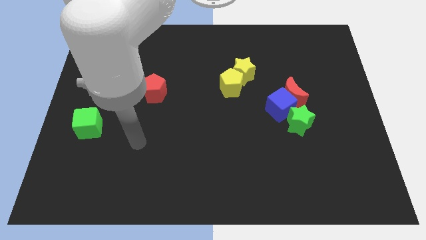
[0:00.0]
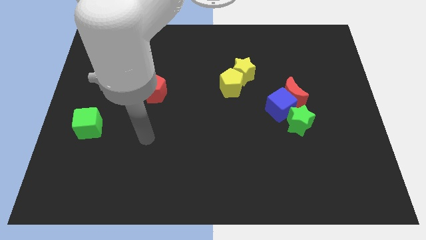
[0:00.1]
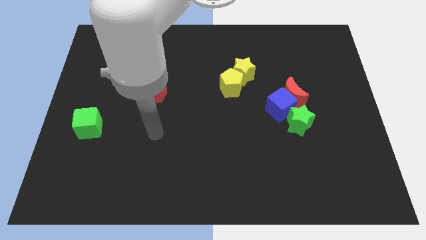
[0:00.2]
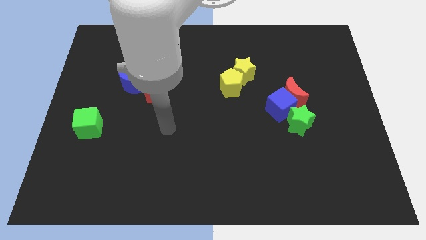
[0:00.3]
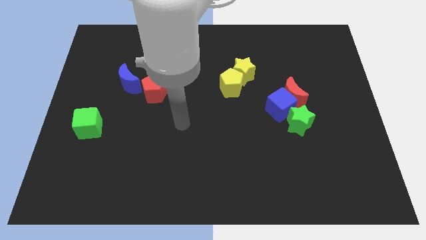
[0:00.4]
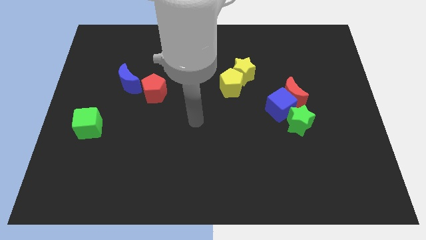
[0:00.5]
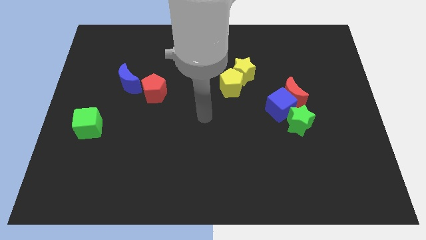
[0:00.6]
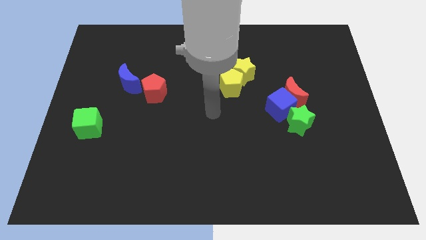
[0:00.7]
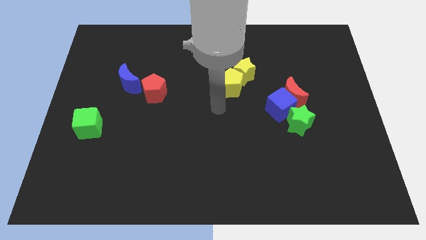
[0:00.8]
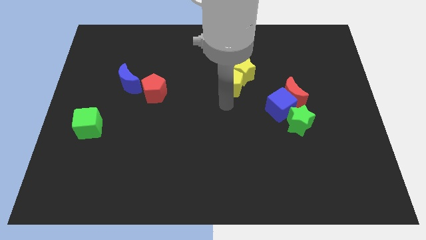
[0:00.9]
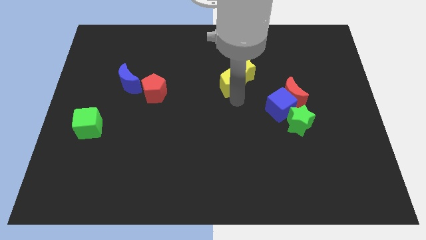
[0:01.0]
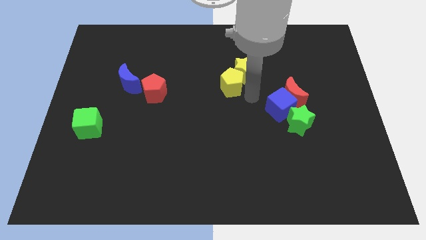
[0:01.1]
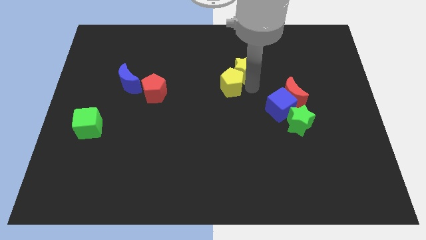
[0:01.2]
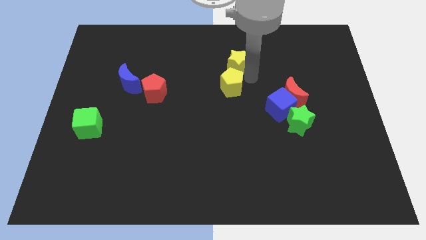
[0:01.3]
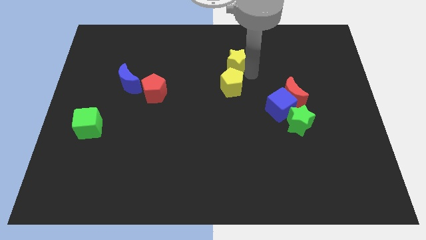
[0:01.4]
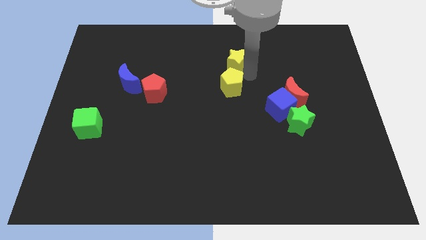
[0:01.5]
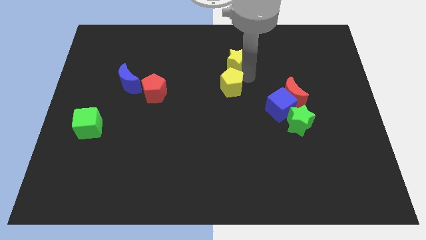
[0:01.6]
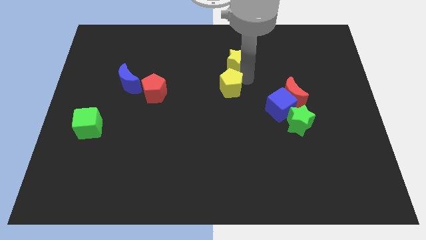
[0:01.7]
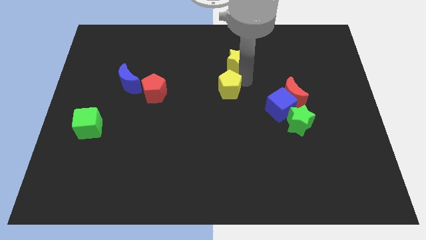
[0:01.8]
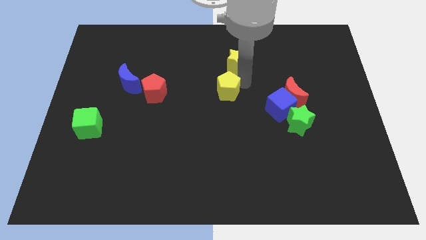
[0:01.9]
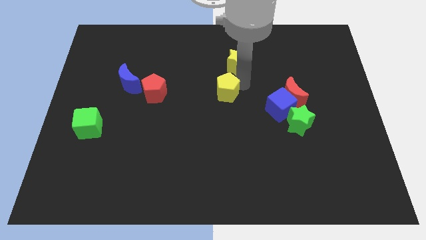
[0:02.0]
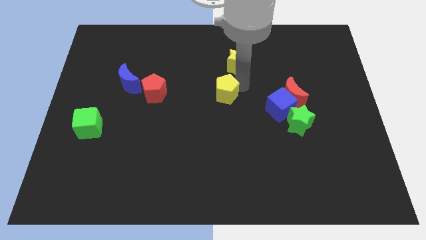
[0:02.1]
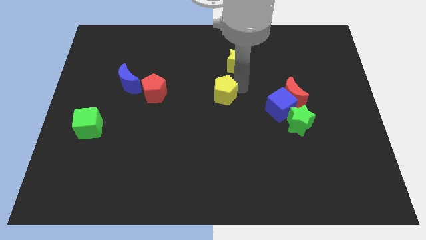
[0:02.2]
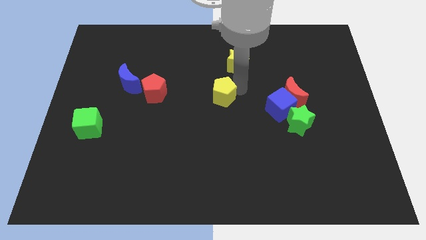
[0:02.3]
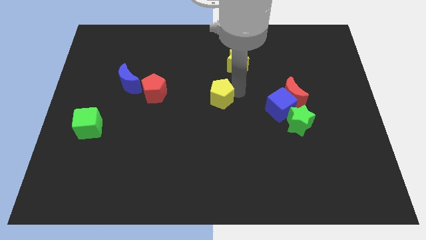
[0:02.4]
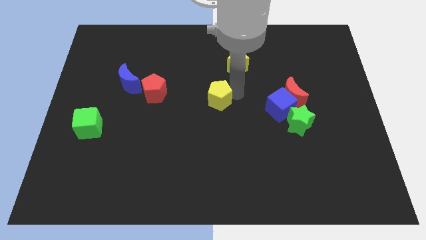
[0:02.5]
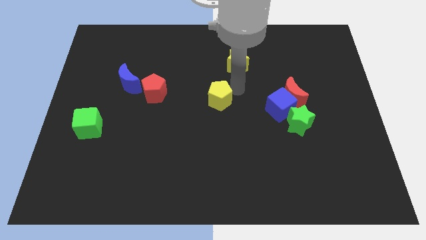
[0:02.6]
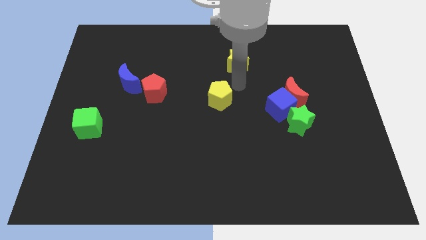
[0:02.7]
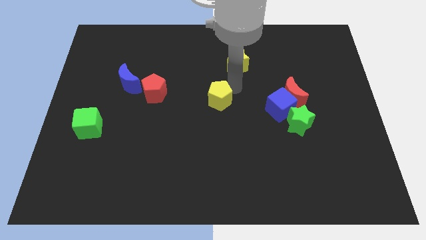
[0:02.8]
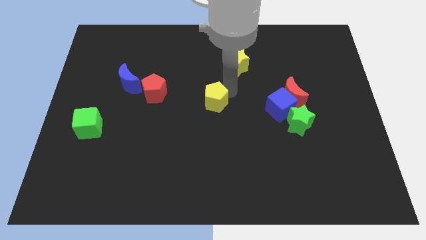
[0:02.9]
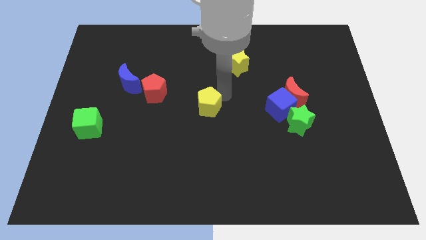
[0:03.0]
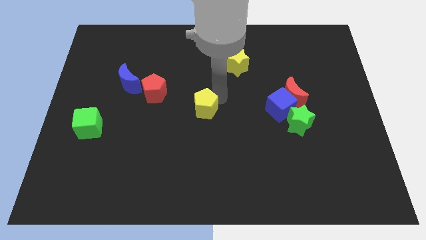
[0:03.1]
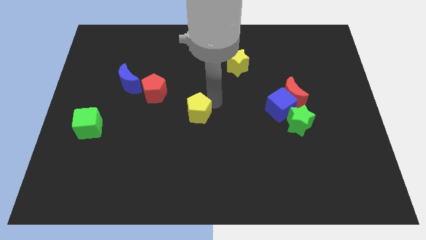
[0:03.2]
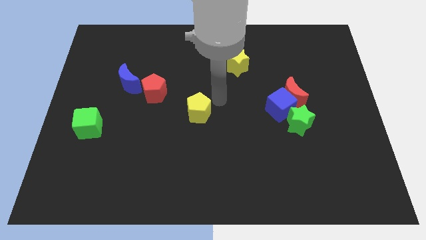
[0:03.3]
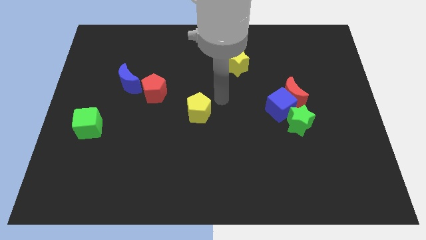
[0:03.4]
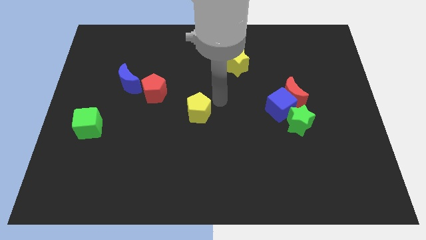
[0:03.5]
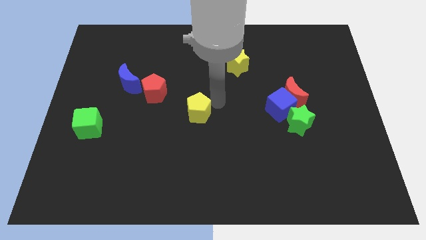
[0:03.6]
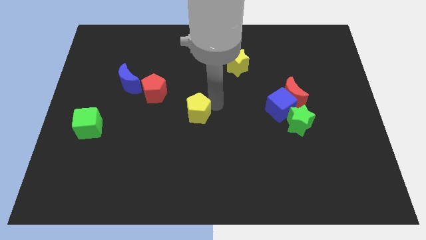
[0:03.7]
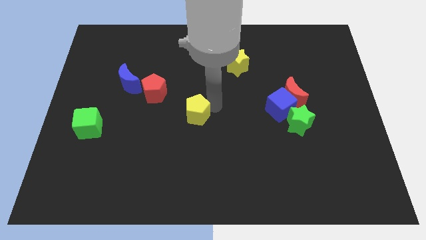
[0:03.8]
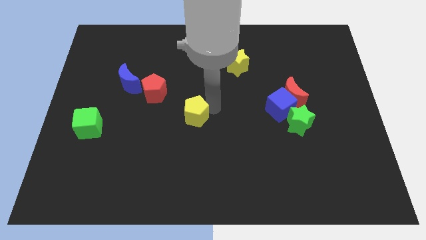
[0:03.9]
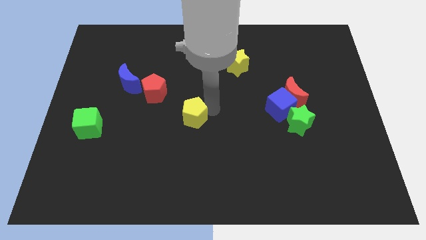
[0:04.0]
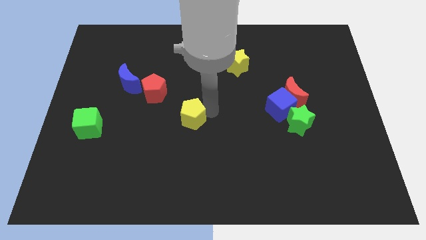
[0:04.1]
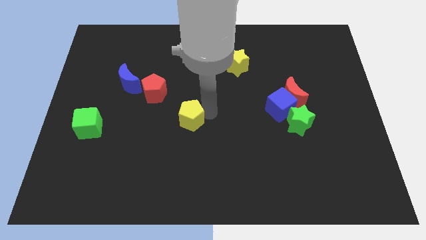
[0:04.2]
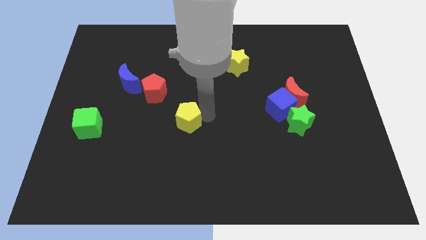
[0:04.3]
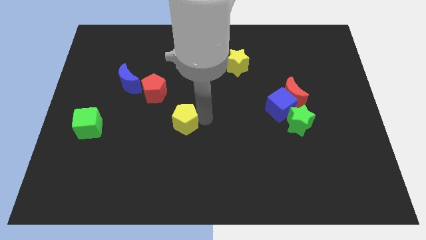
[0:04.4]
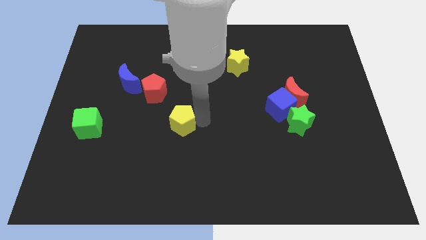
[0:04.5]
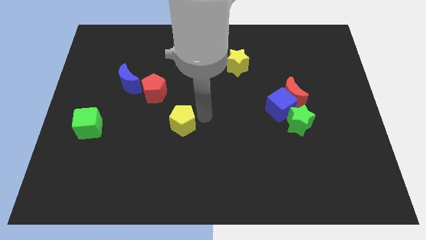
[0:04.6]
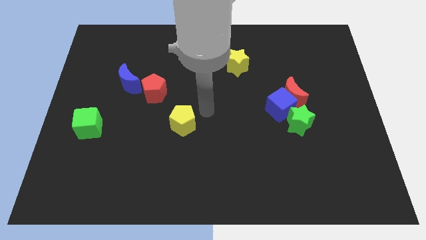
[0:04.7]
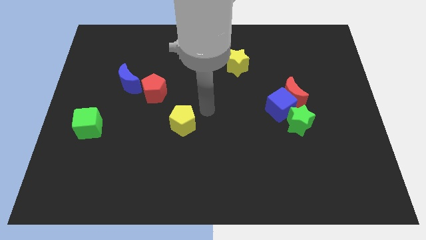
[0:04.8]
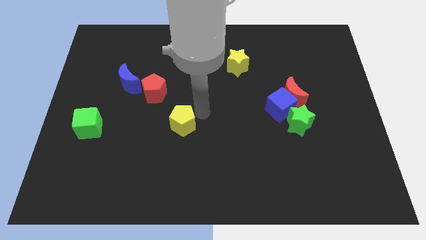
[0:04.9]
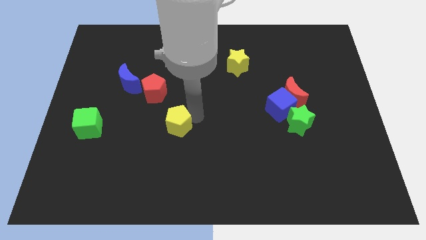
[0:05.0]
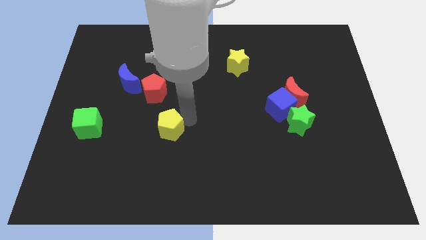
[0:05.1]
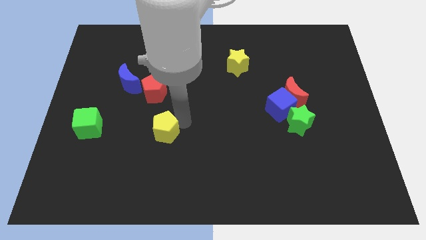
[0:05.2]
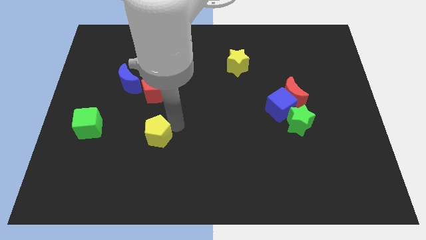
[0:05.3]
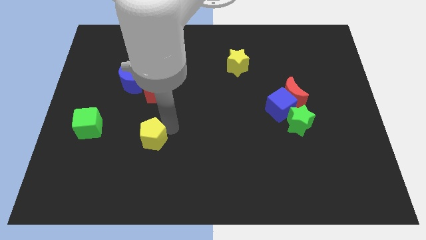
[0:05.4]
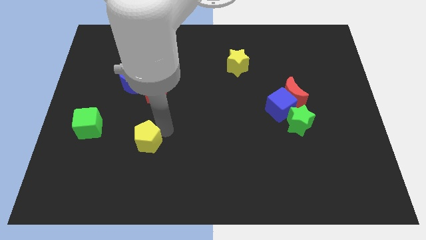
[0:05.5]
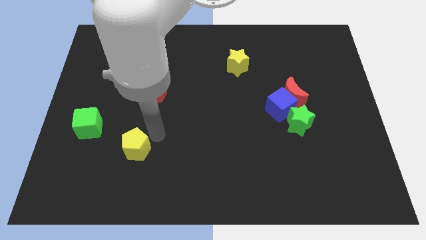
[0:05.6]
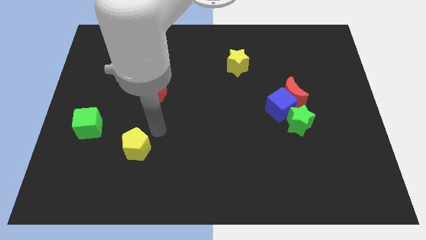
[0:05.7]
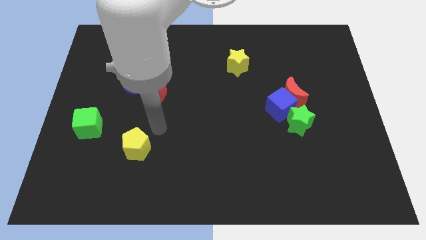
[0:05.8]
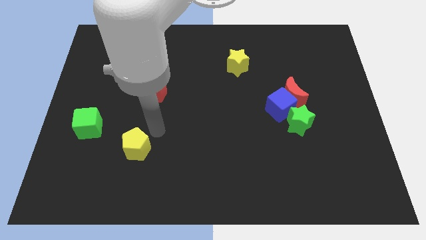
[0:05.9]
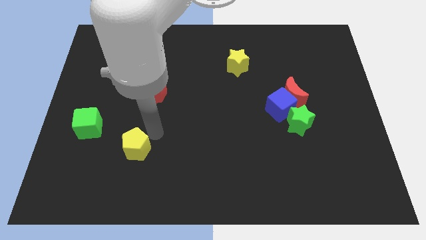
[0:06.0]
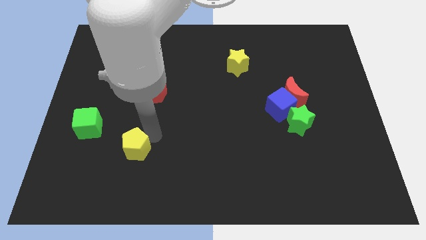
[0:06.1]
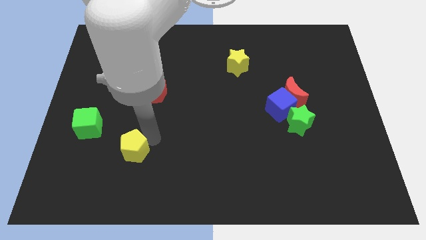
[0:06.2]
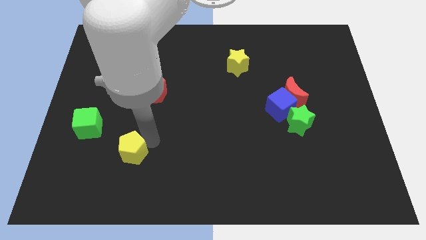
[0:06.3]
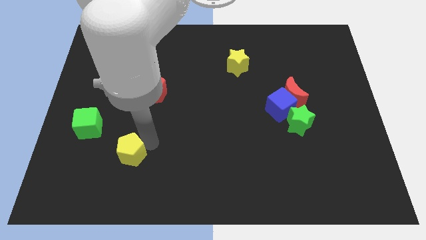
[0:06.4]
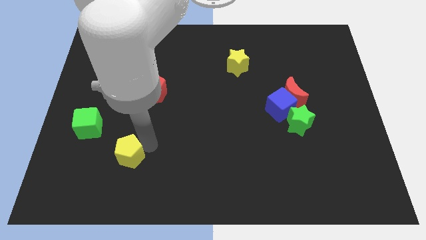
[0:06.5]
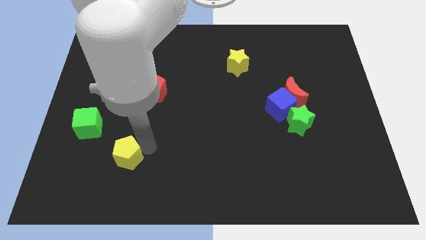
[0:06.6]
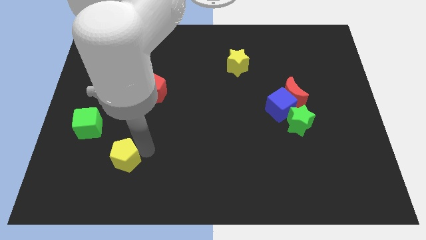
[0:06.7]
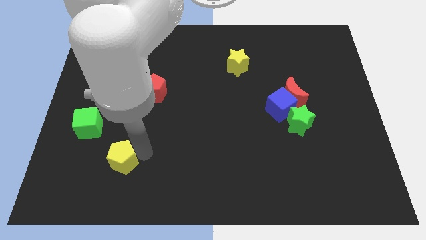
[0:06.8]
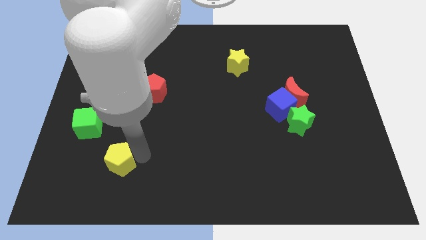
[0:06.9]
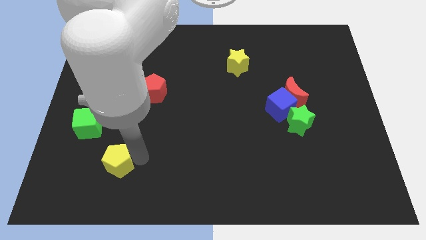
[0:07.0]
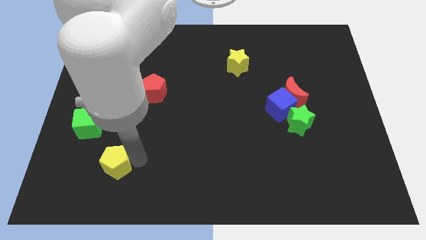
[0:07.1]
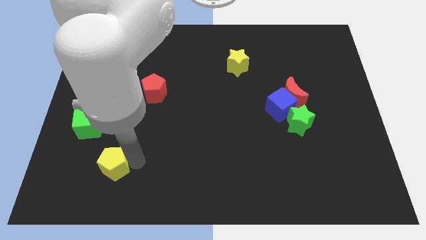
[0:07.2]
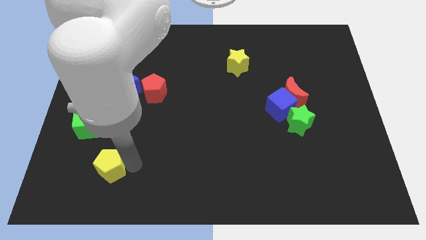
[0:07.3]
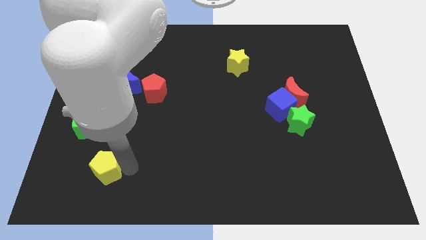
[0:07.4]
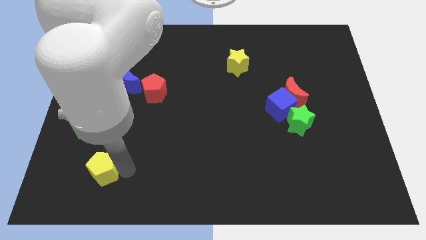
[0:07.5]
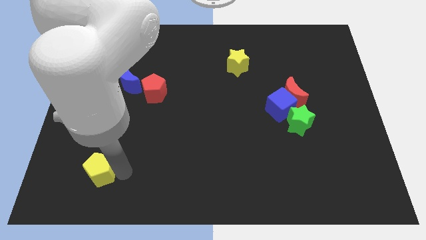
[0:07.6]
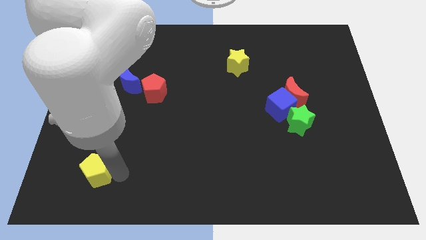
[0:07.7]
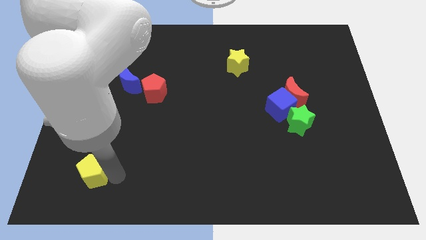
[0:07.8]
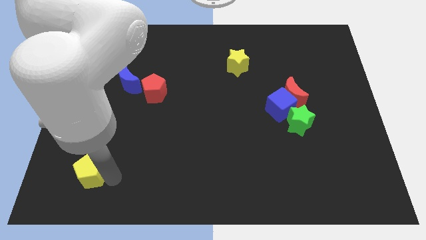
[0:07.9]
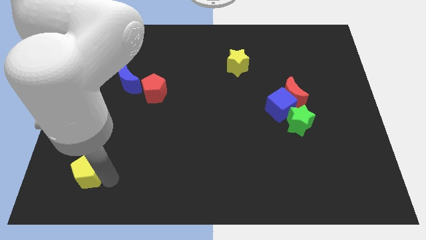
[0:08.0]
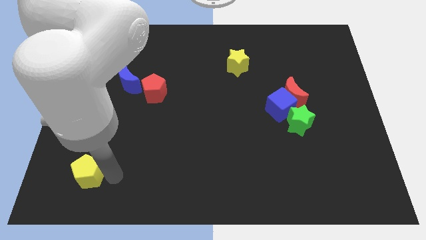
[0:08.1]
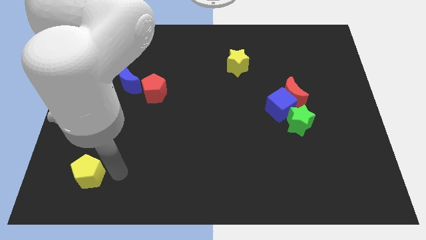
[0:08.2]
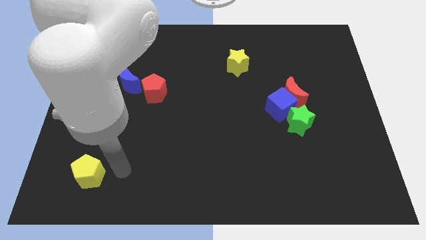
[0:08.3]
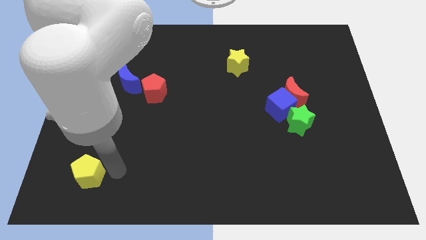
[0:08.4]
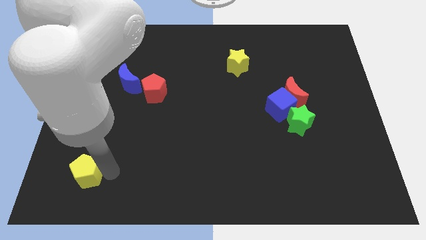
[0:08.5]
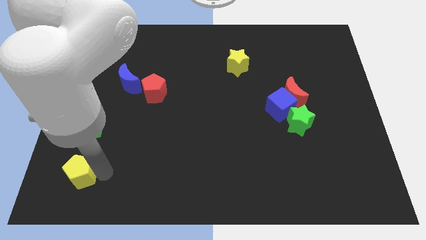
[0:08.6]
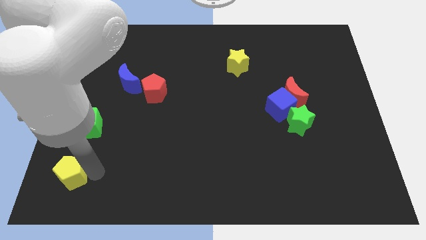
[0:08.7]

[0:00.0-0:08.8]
put the yellow pentagon to the bottom left corner
